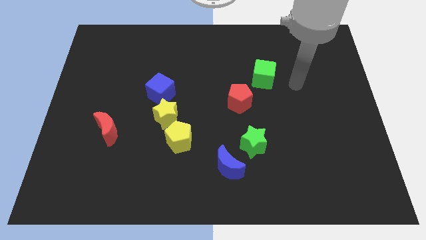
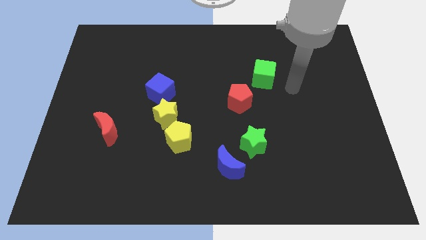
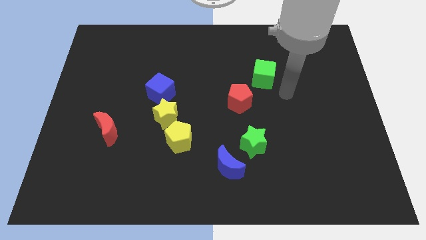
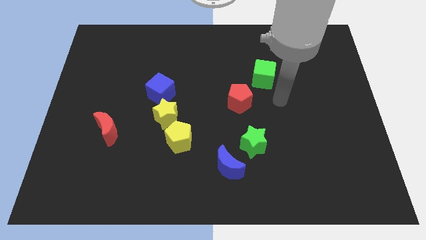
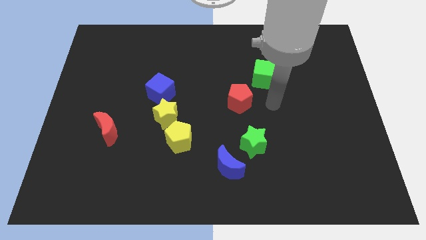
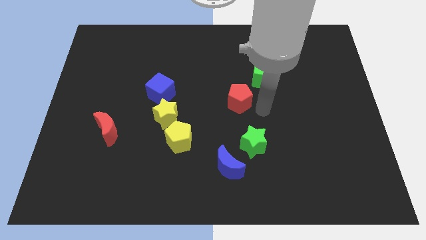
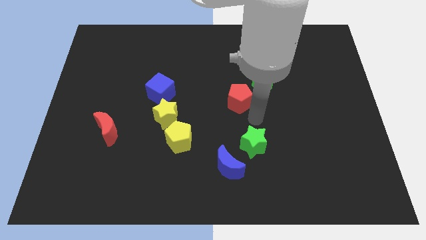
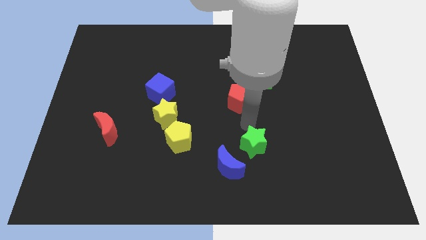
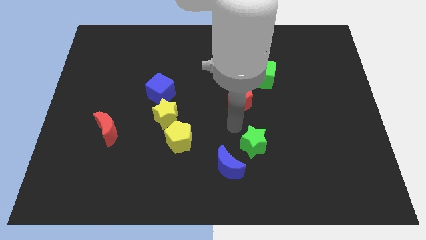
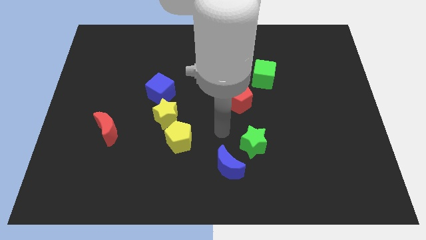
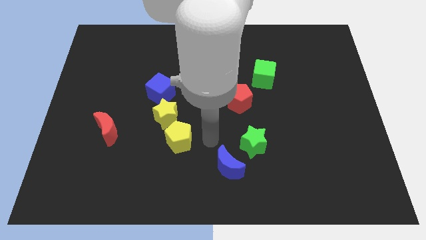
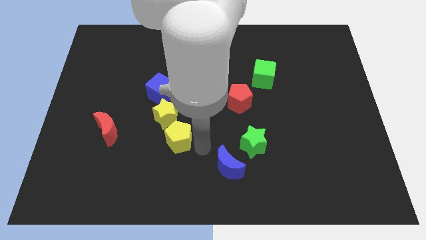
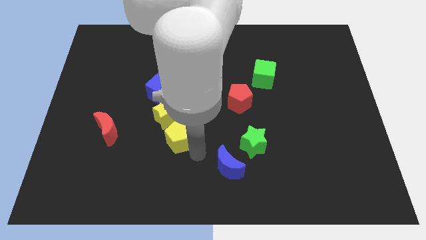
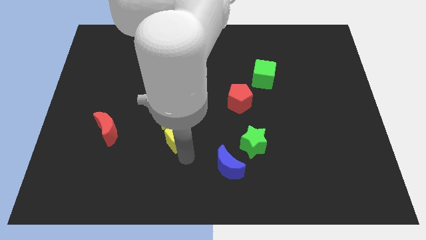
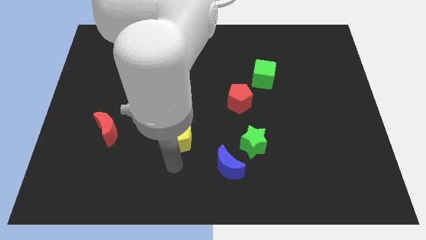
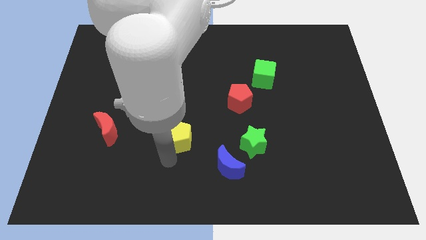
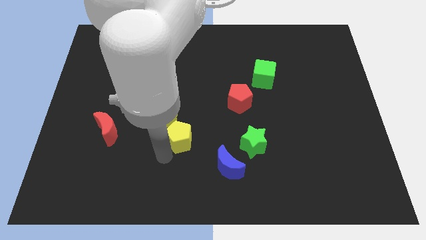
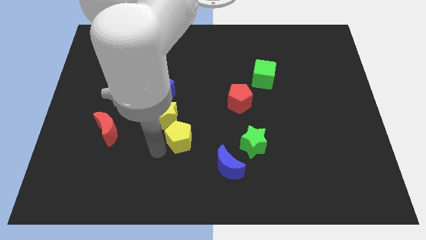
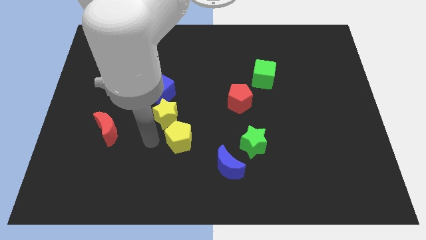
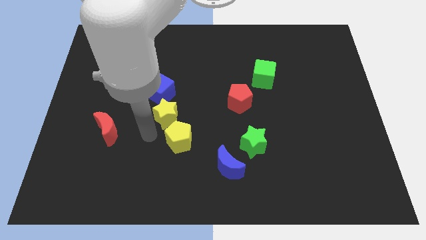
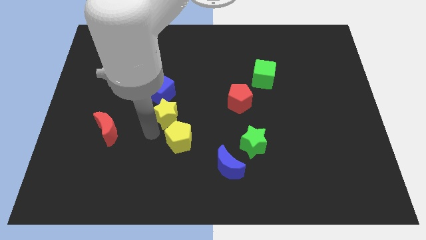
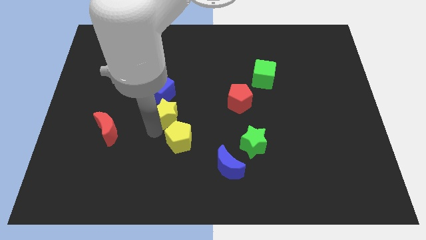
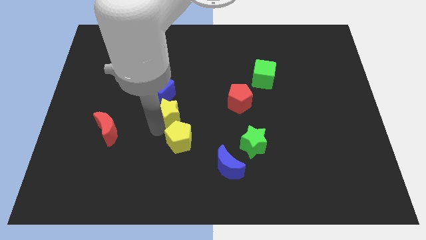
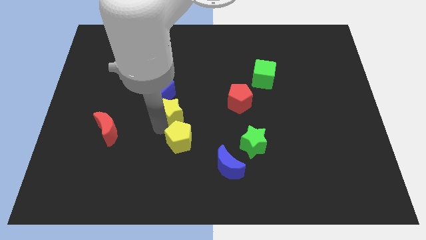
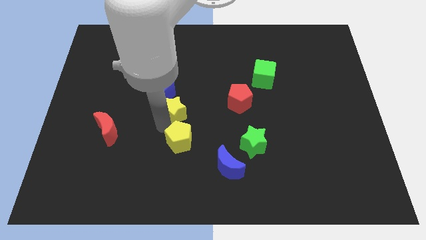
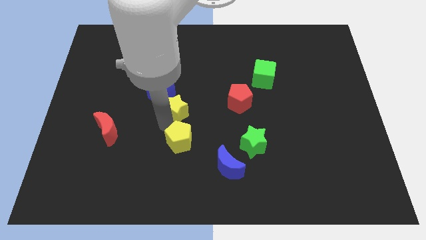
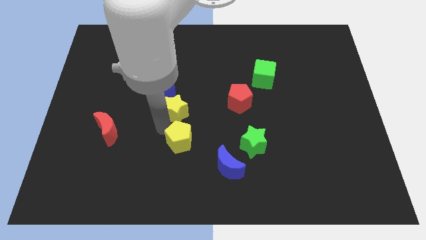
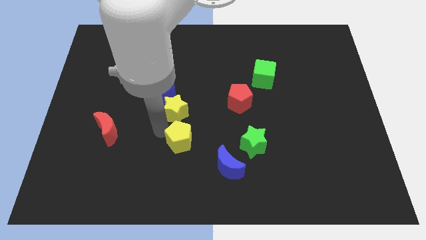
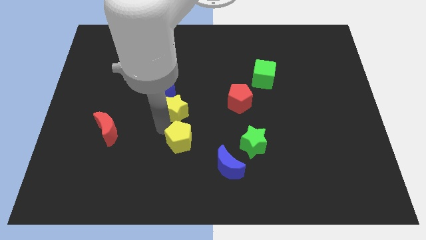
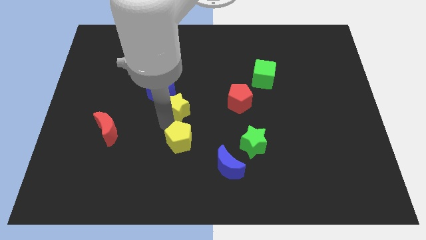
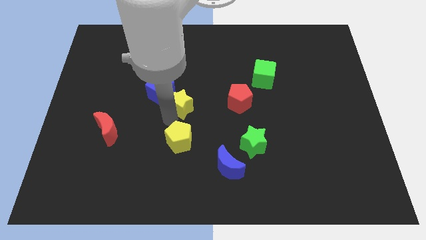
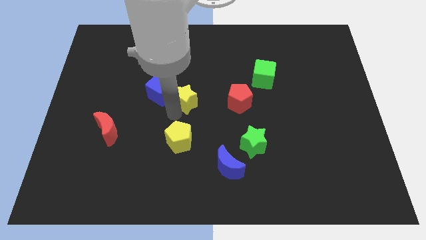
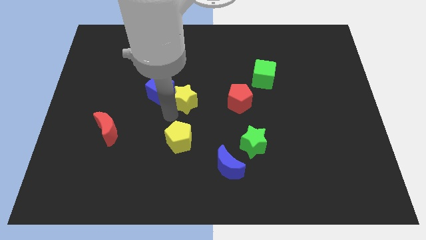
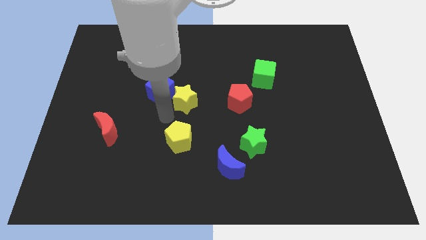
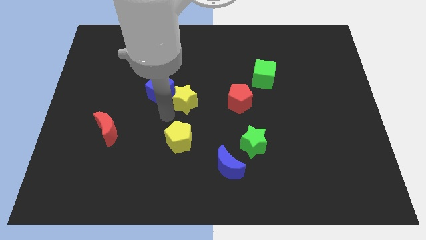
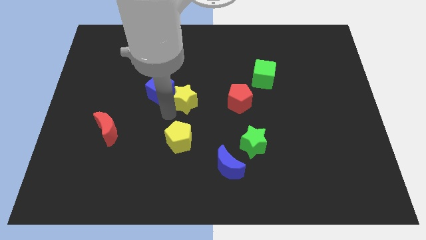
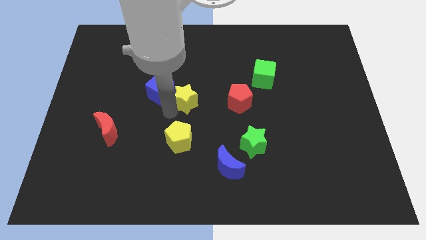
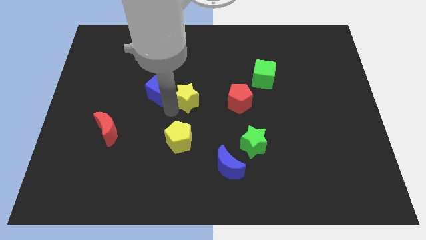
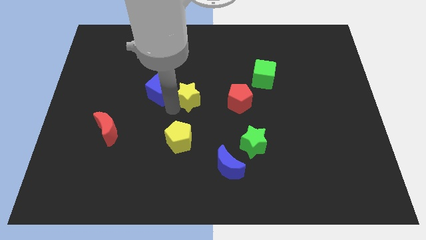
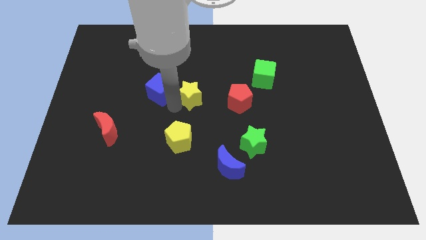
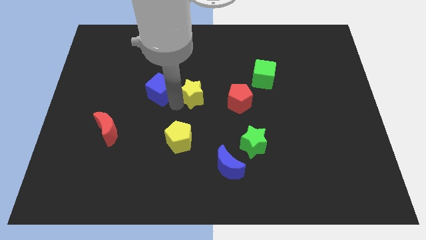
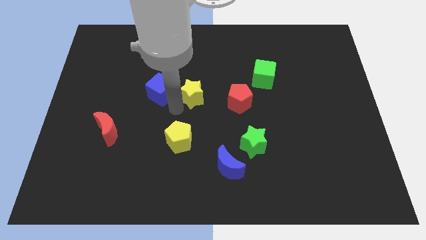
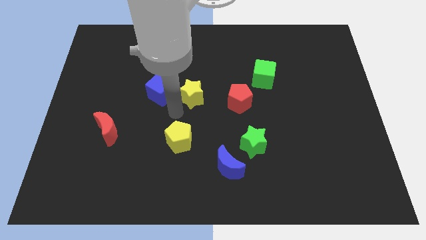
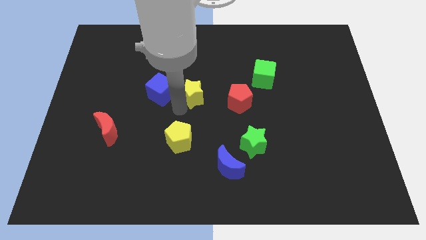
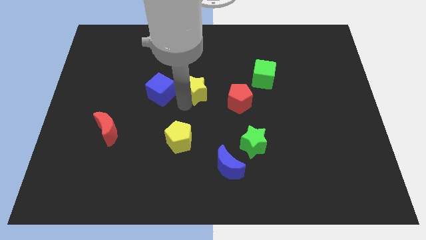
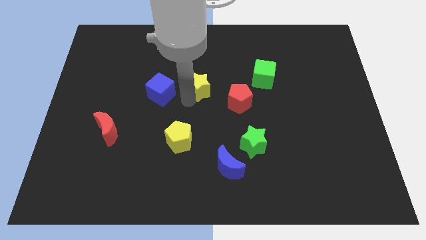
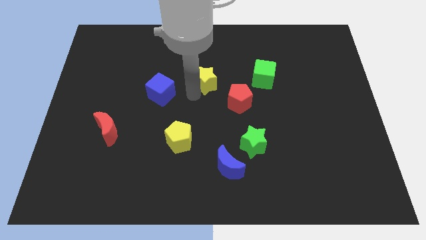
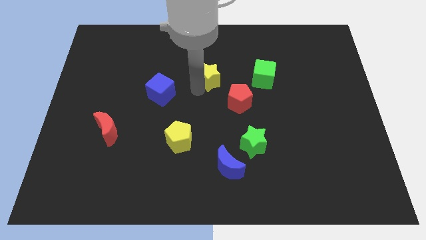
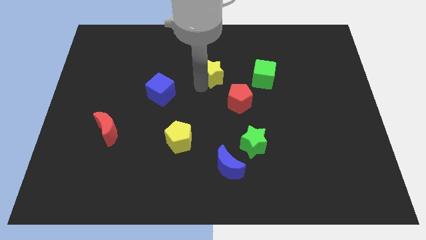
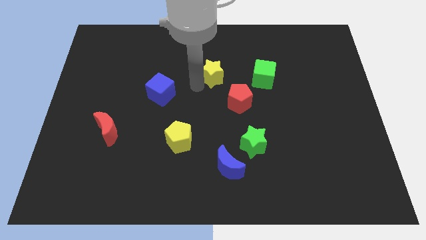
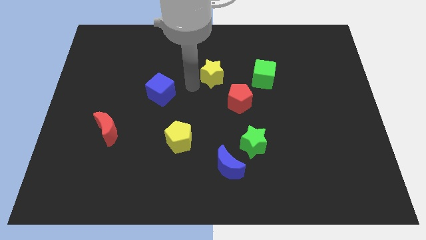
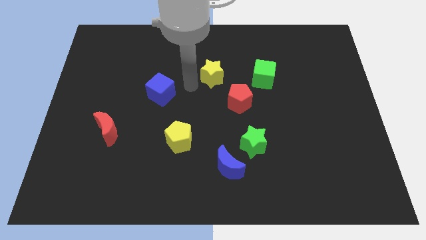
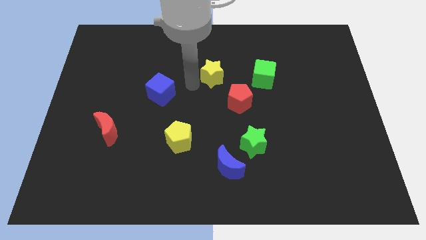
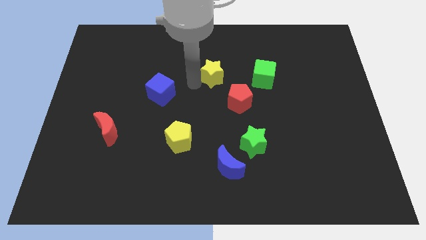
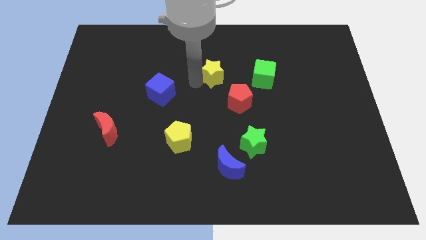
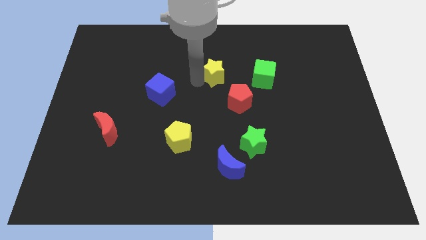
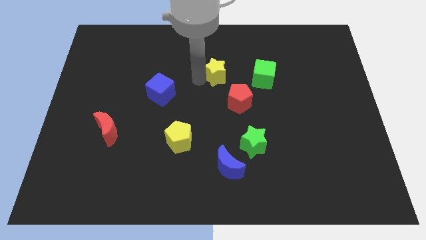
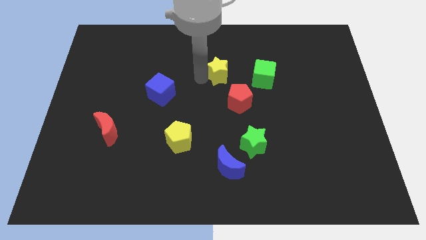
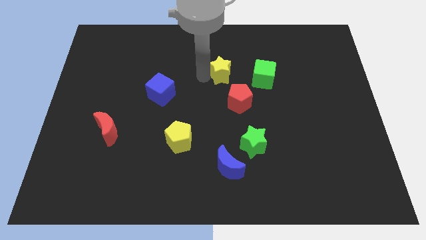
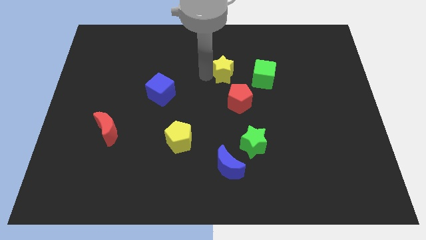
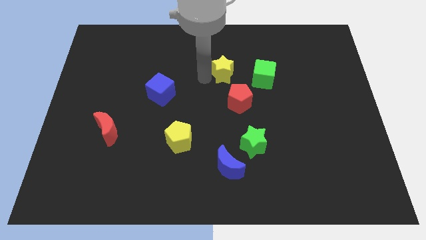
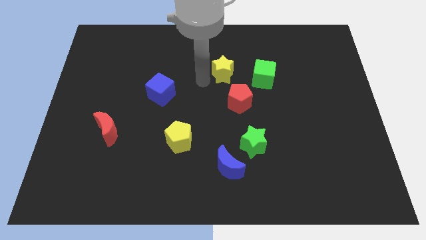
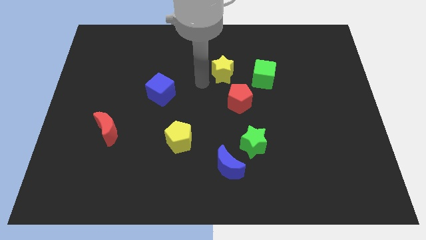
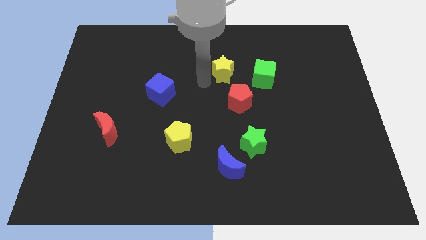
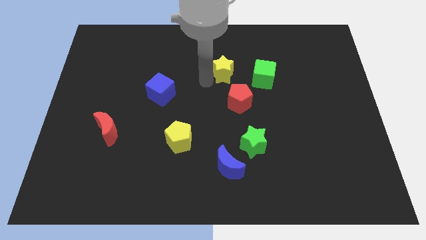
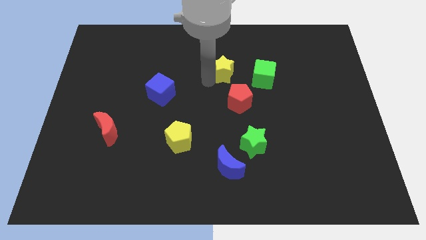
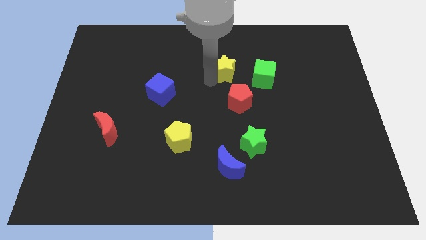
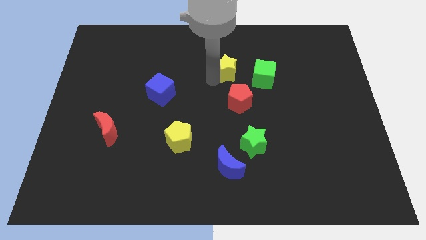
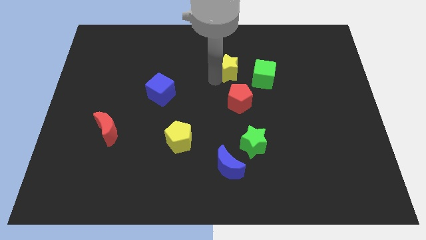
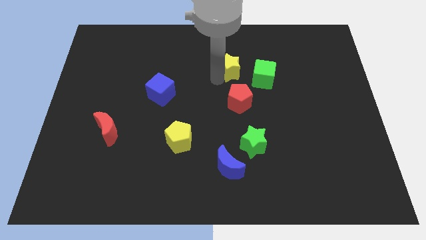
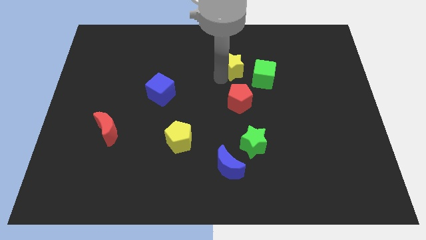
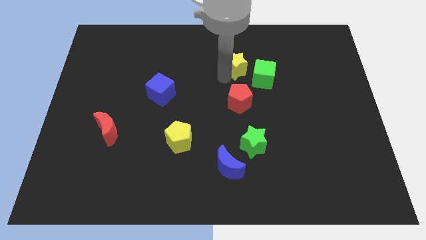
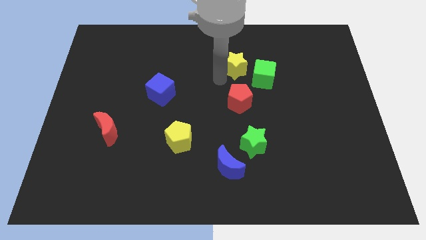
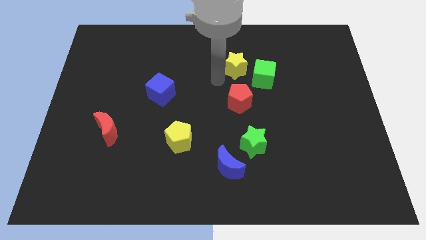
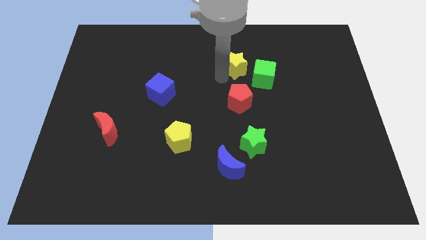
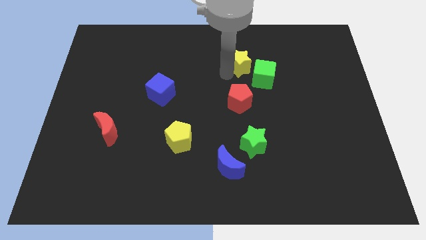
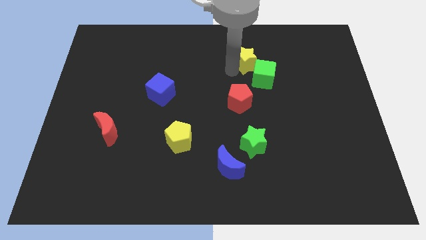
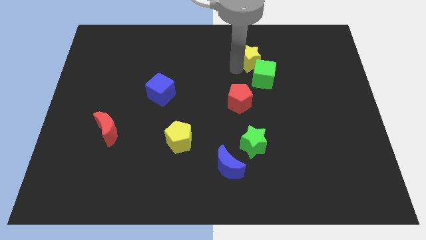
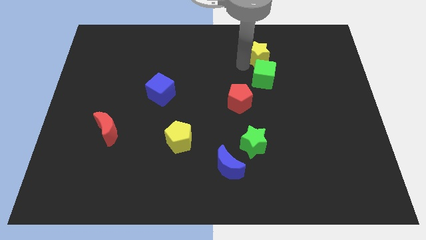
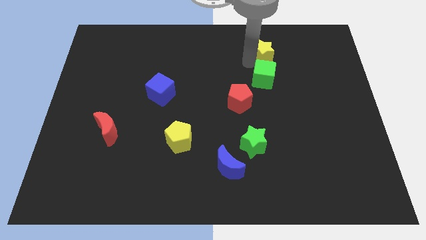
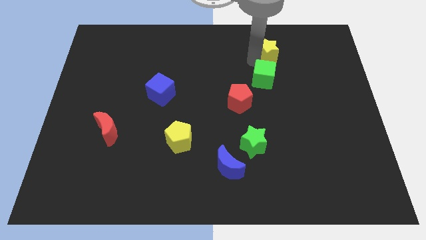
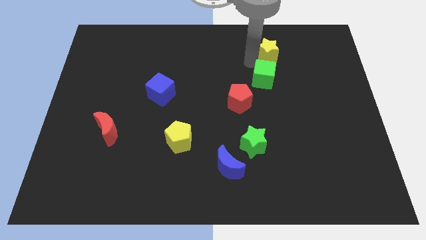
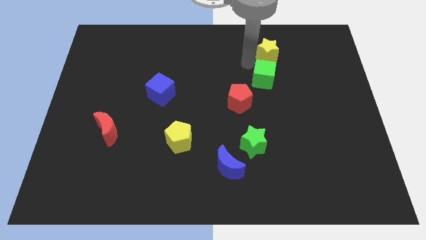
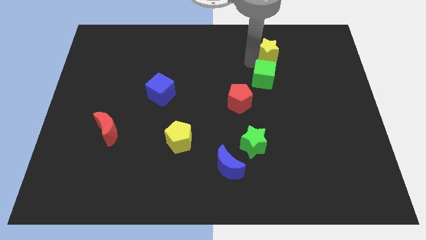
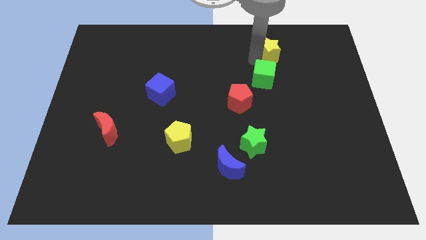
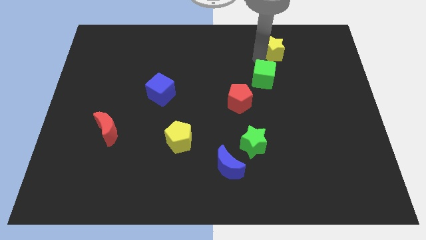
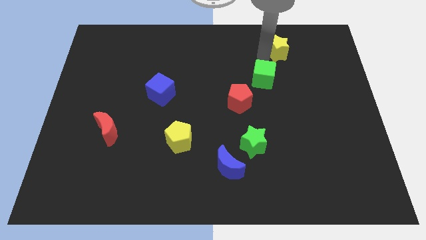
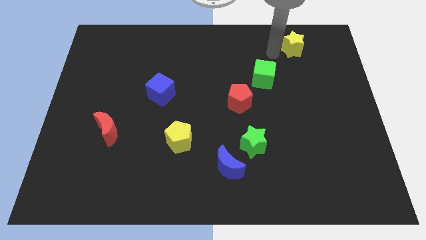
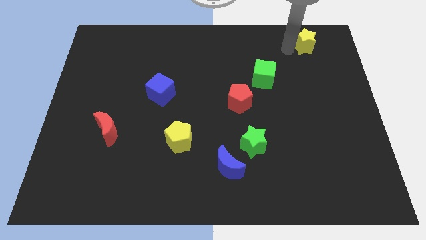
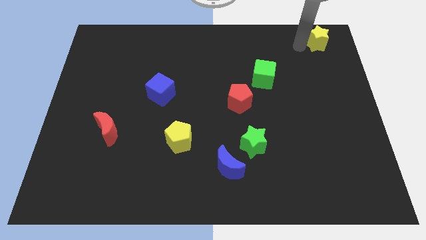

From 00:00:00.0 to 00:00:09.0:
put the yellow star to the top right
